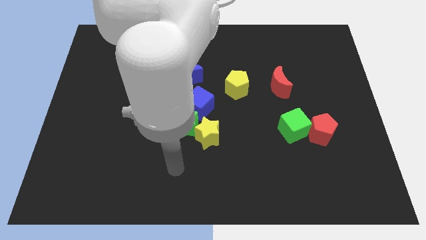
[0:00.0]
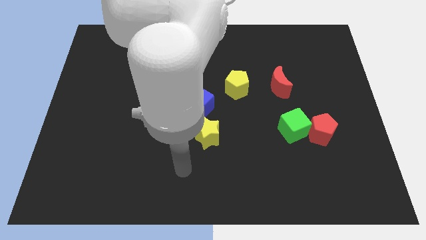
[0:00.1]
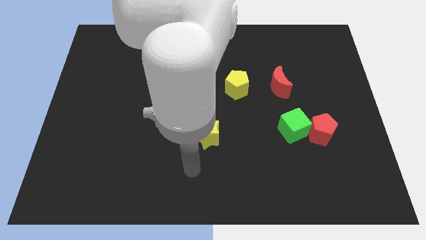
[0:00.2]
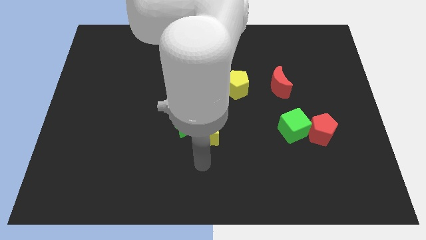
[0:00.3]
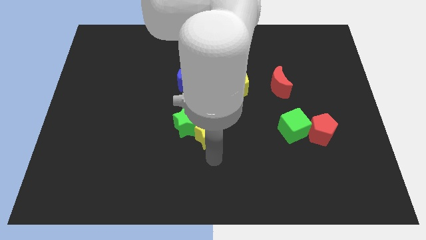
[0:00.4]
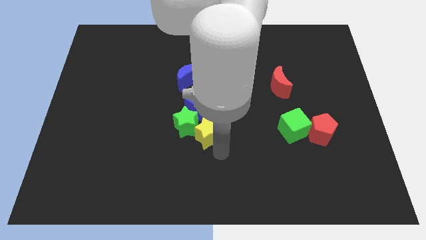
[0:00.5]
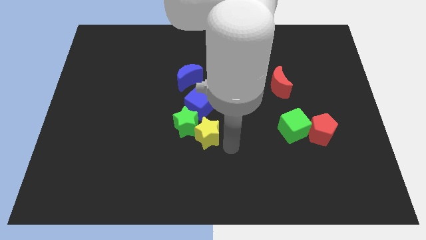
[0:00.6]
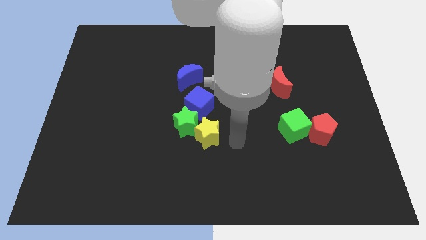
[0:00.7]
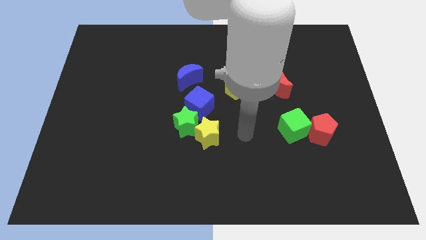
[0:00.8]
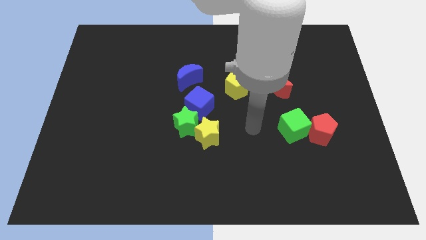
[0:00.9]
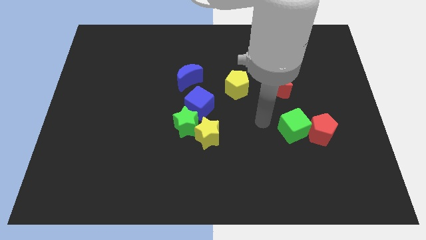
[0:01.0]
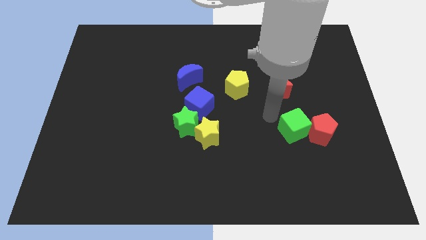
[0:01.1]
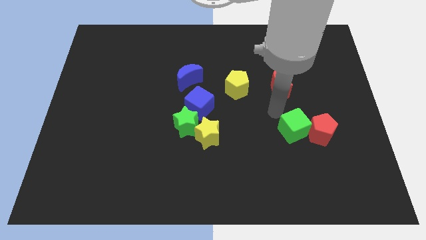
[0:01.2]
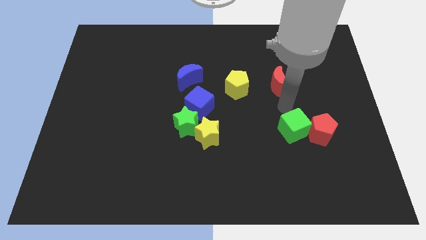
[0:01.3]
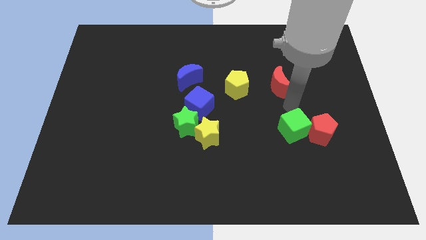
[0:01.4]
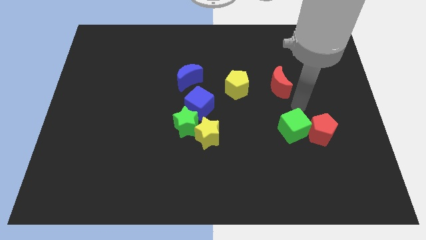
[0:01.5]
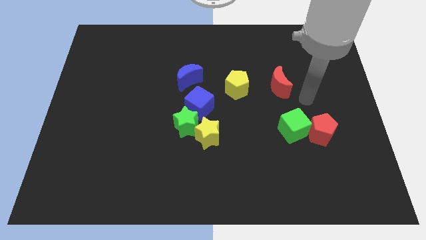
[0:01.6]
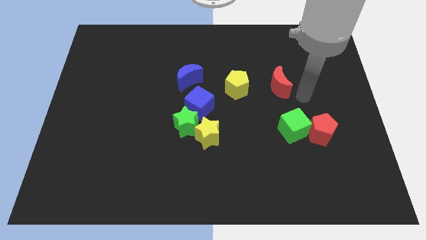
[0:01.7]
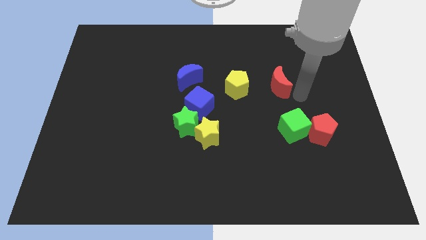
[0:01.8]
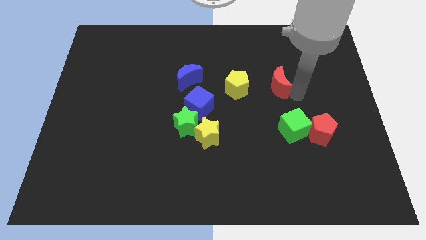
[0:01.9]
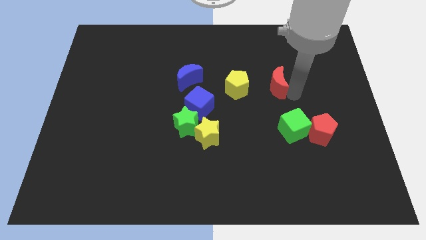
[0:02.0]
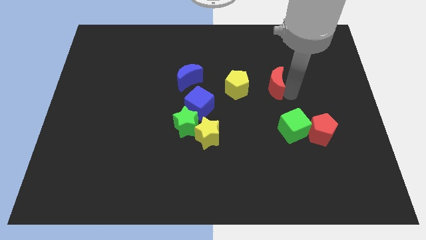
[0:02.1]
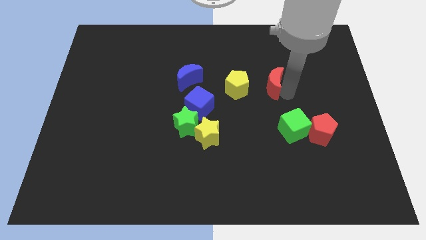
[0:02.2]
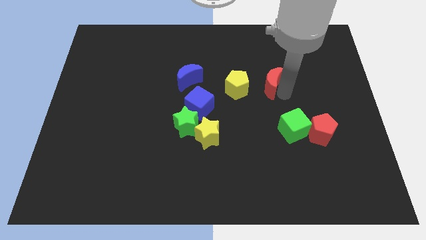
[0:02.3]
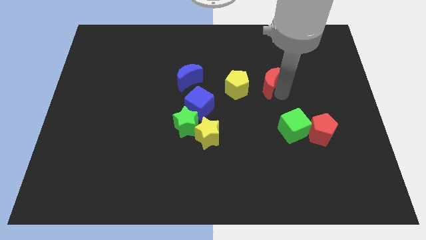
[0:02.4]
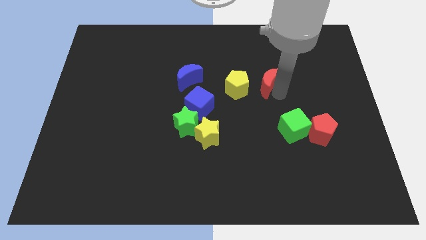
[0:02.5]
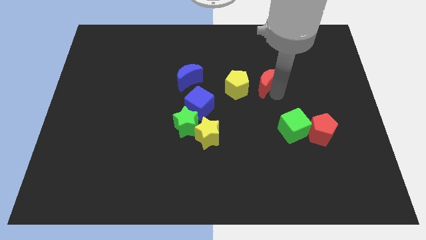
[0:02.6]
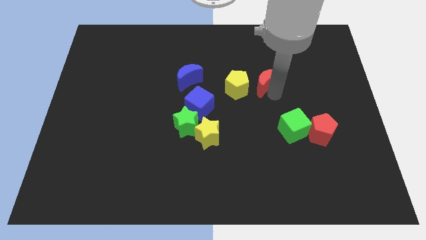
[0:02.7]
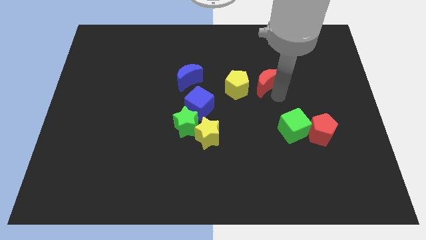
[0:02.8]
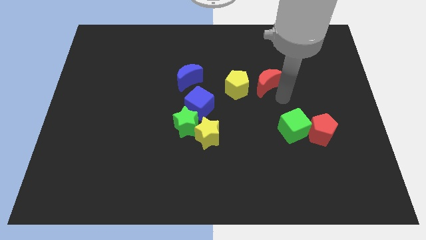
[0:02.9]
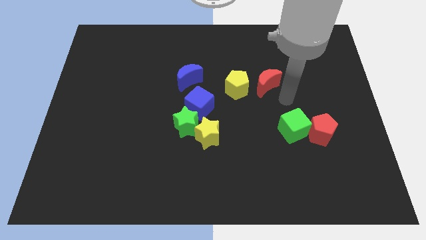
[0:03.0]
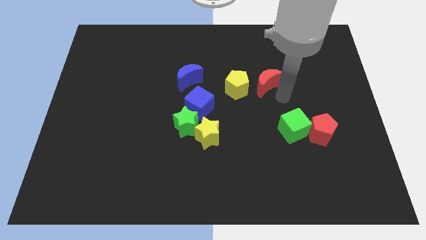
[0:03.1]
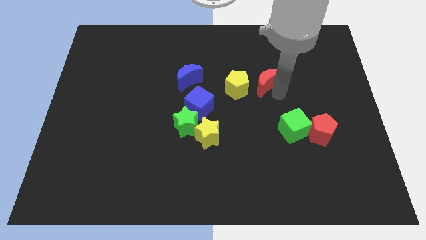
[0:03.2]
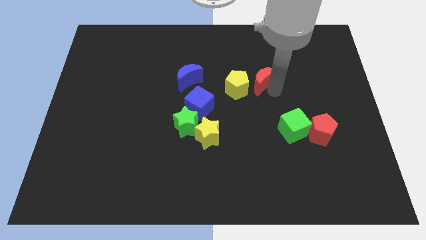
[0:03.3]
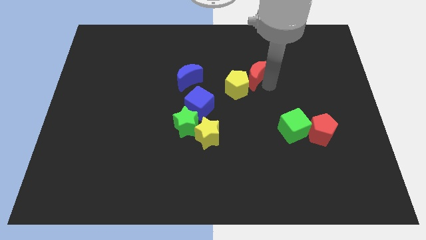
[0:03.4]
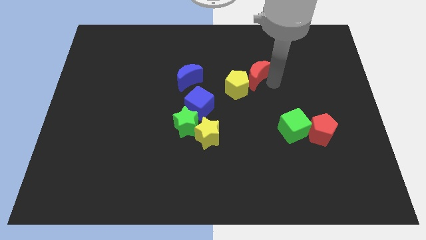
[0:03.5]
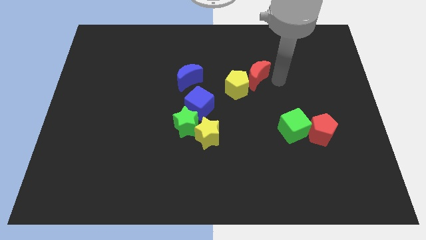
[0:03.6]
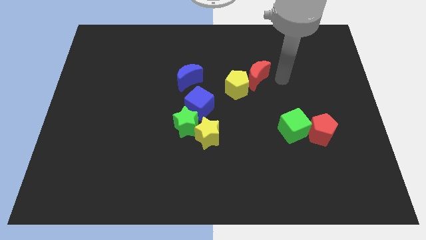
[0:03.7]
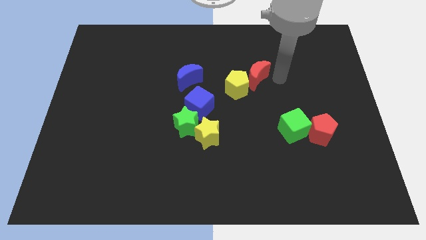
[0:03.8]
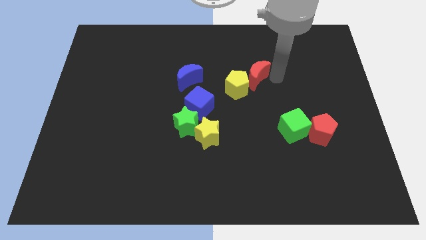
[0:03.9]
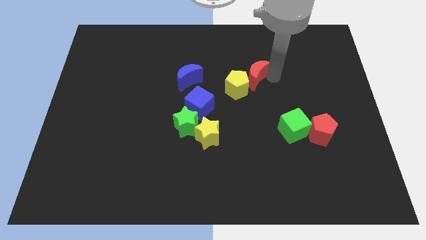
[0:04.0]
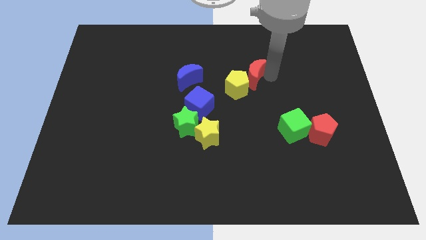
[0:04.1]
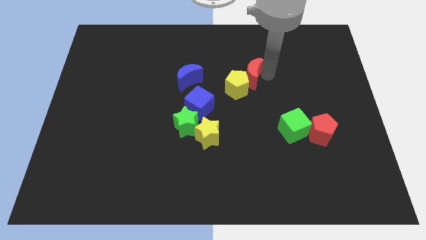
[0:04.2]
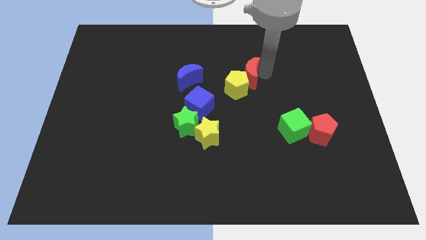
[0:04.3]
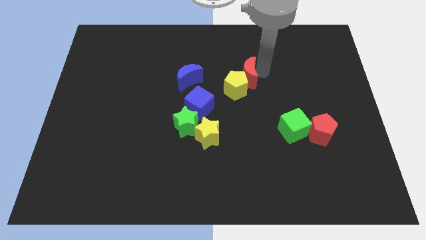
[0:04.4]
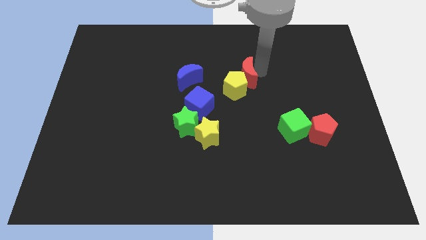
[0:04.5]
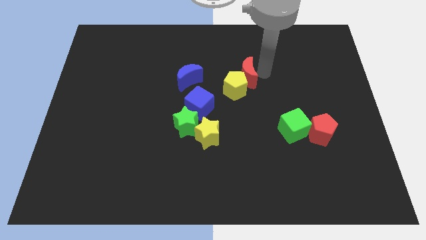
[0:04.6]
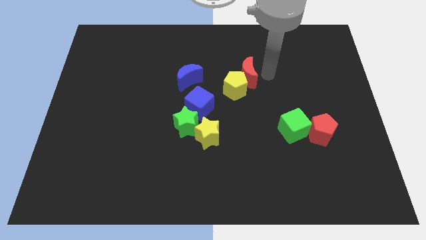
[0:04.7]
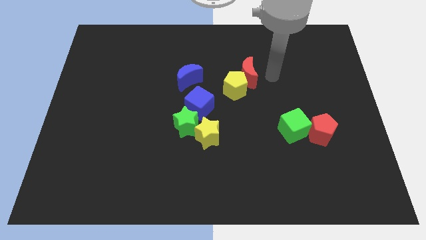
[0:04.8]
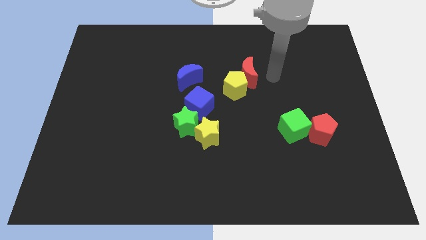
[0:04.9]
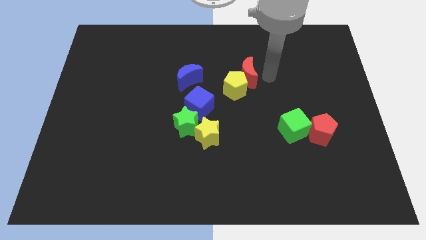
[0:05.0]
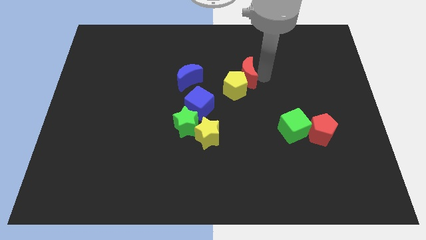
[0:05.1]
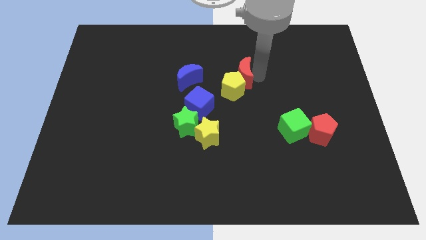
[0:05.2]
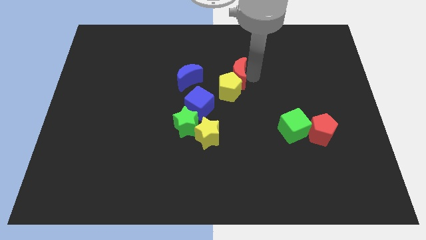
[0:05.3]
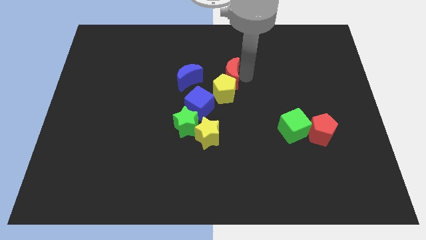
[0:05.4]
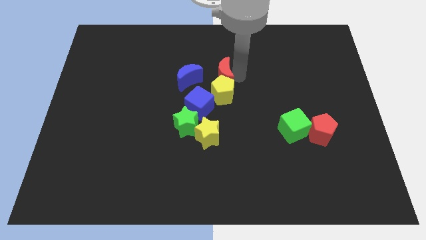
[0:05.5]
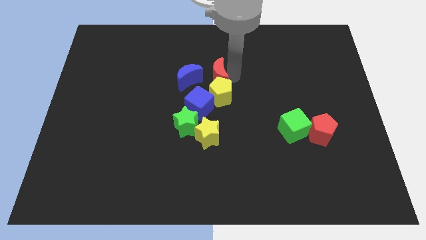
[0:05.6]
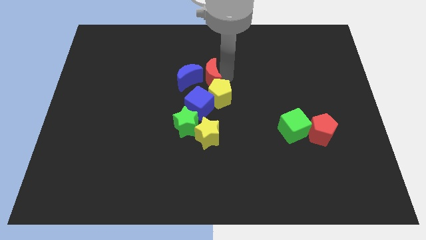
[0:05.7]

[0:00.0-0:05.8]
move the red moon to the blue moon
